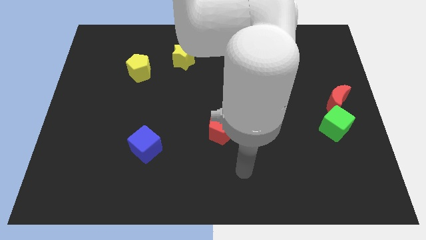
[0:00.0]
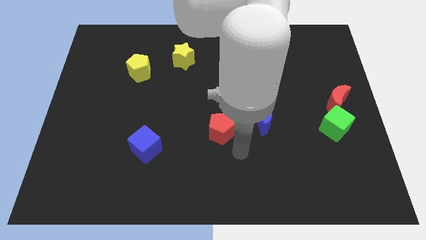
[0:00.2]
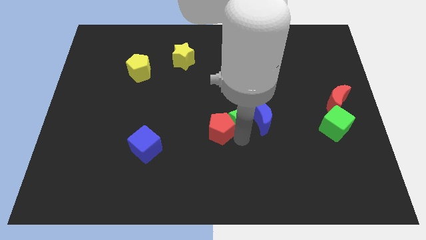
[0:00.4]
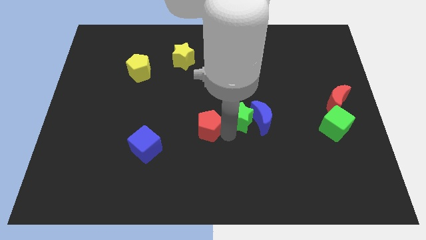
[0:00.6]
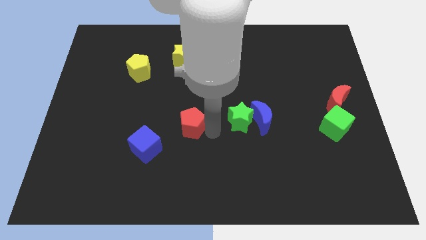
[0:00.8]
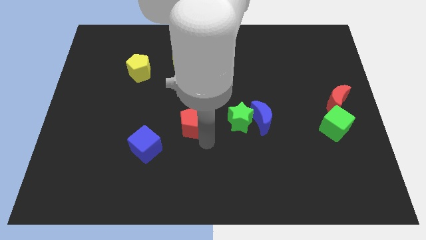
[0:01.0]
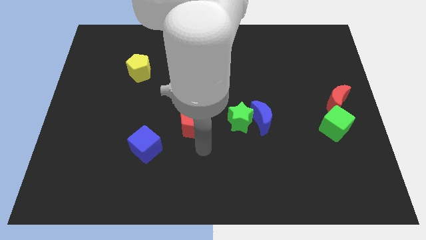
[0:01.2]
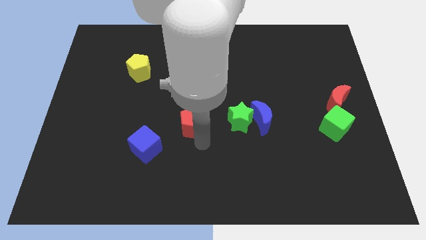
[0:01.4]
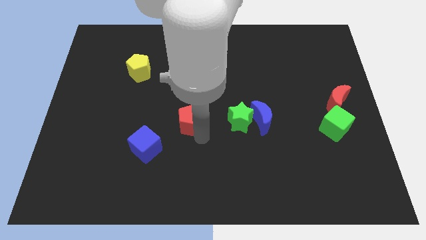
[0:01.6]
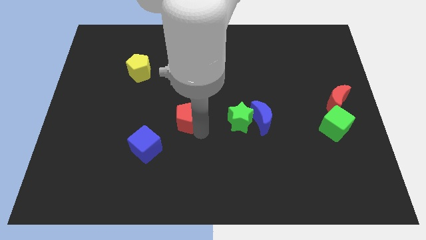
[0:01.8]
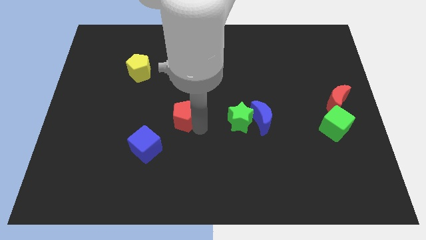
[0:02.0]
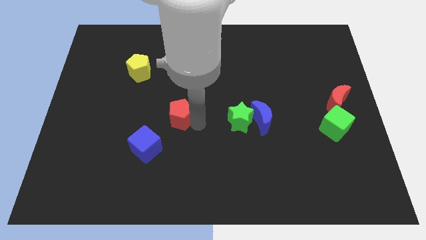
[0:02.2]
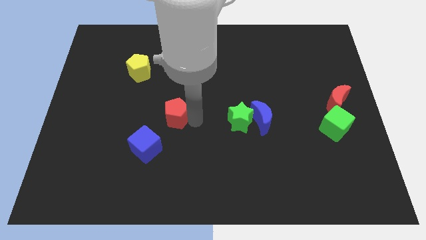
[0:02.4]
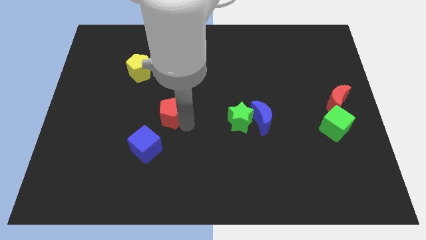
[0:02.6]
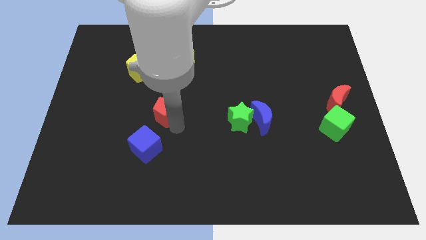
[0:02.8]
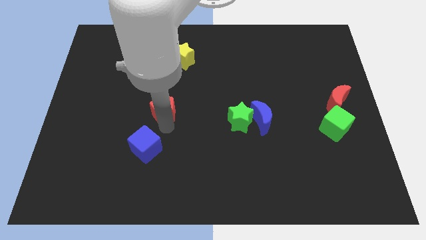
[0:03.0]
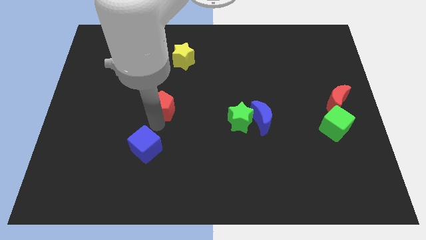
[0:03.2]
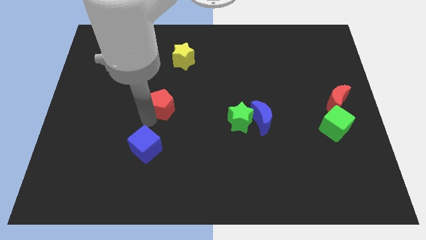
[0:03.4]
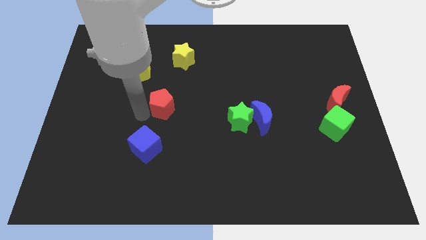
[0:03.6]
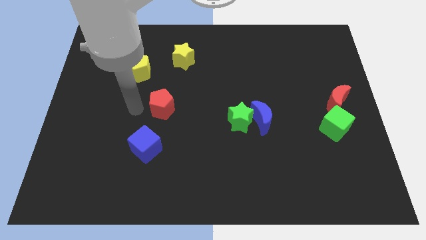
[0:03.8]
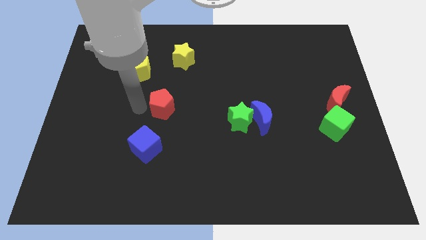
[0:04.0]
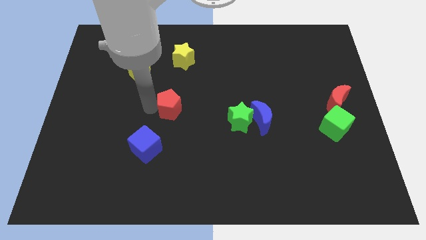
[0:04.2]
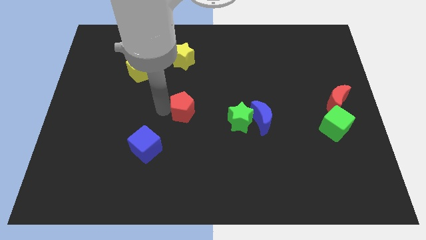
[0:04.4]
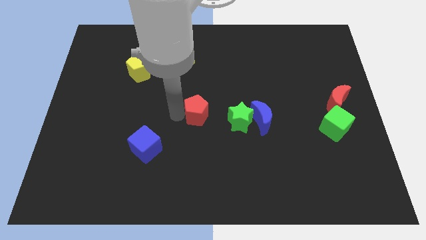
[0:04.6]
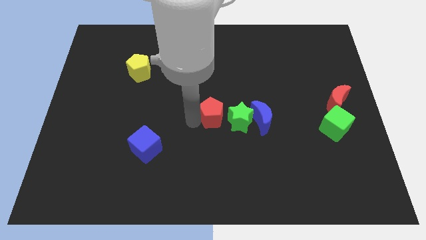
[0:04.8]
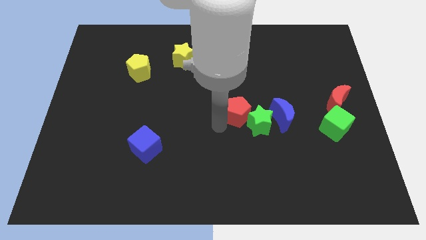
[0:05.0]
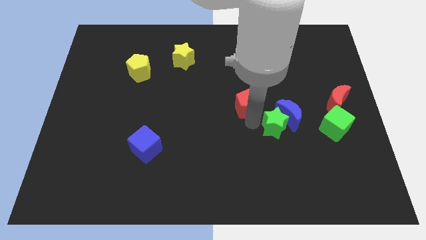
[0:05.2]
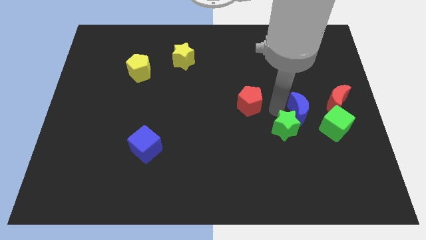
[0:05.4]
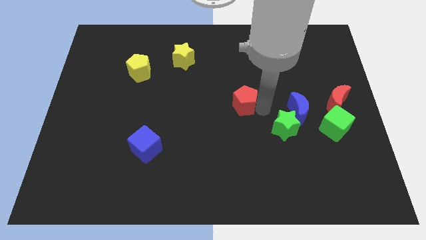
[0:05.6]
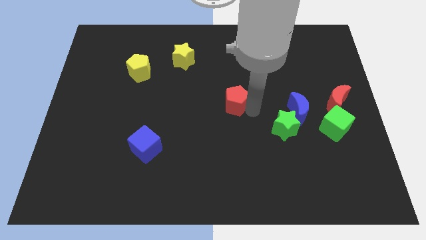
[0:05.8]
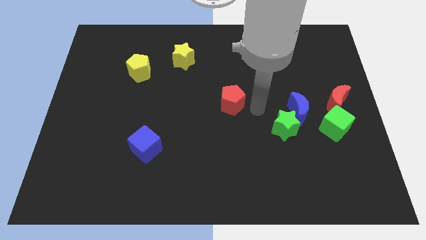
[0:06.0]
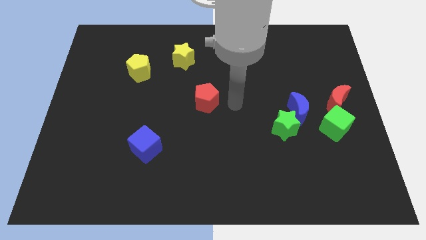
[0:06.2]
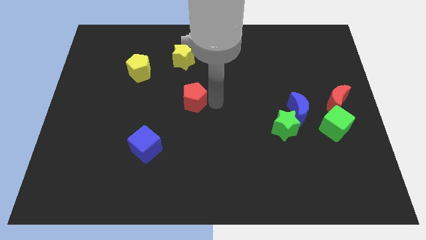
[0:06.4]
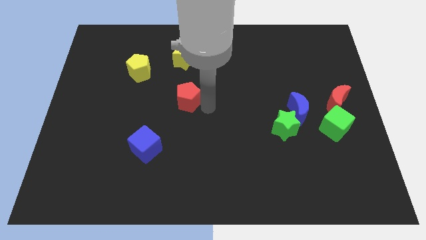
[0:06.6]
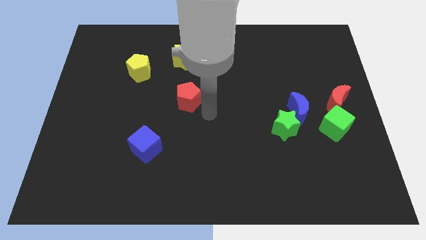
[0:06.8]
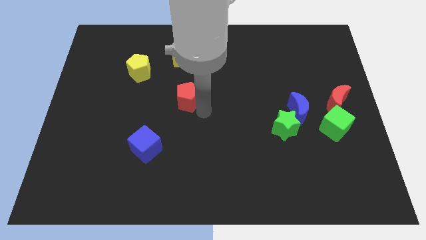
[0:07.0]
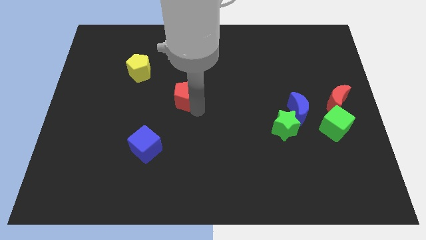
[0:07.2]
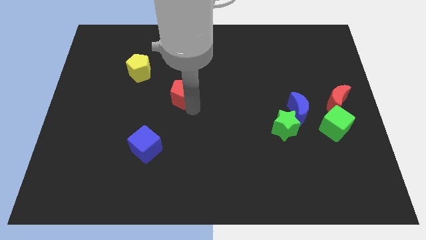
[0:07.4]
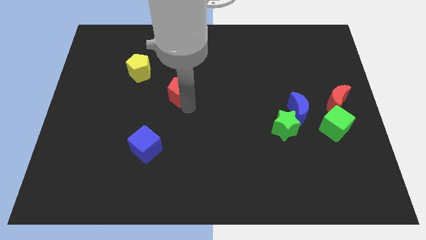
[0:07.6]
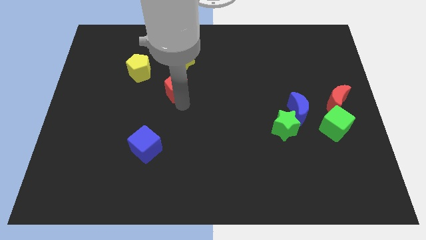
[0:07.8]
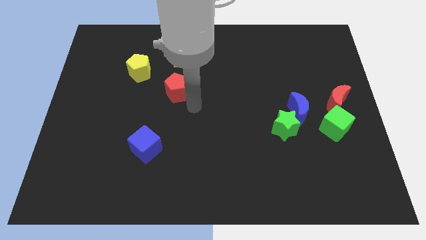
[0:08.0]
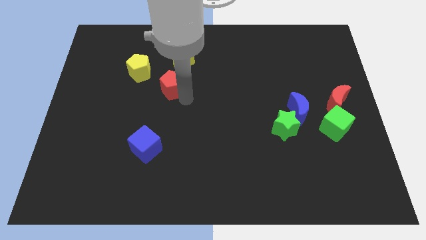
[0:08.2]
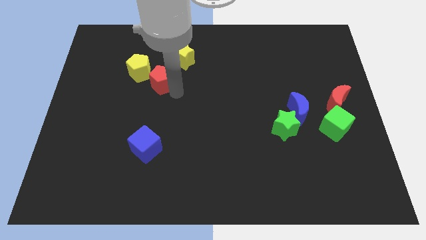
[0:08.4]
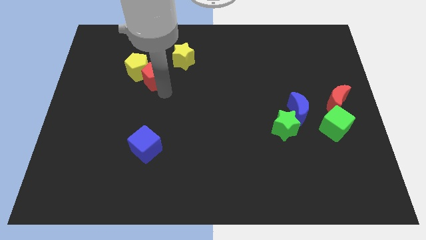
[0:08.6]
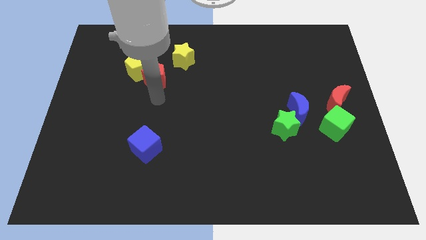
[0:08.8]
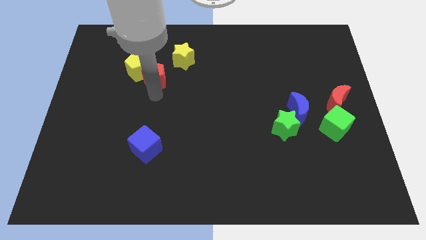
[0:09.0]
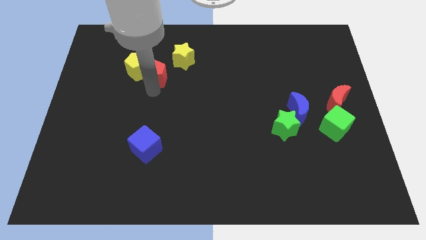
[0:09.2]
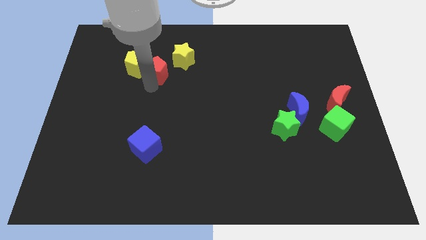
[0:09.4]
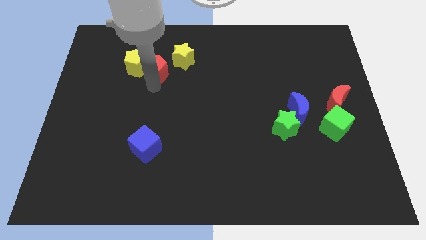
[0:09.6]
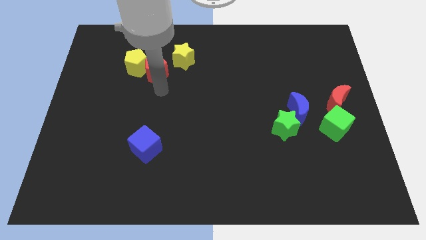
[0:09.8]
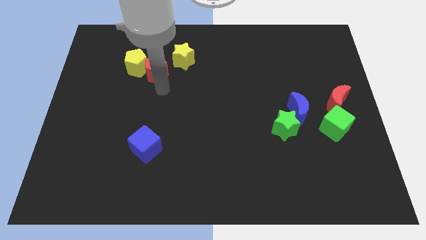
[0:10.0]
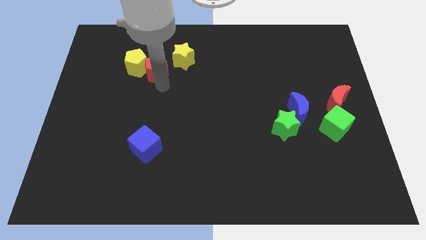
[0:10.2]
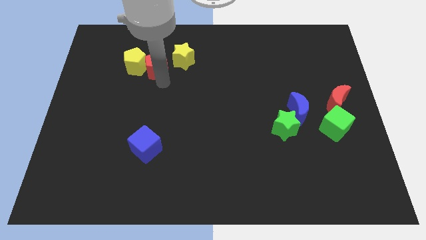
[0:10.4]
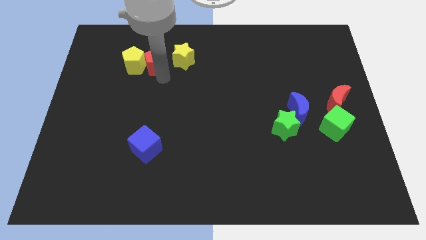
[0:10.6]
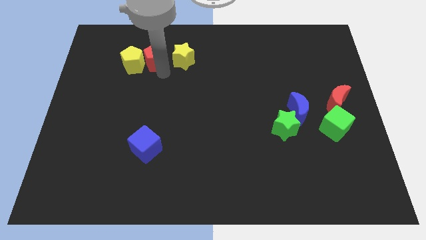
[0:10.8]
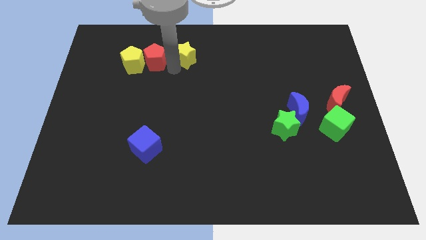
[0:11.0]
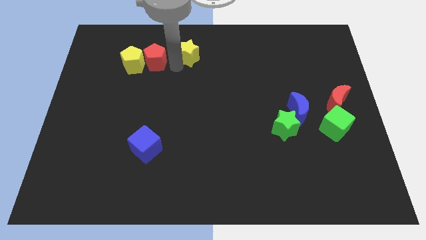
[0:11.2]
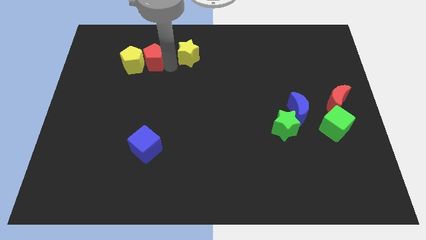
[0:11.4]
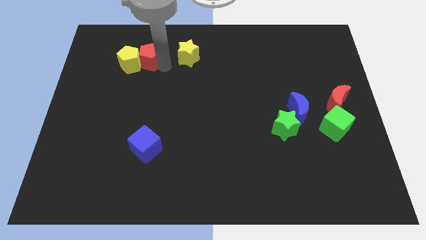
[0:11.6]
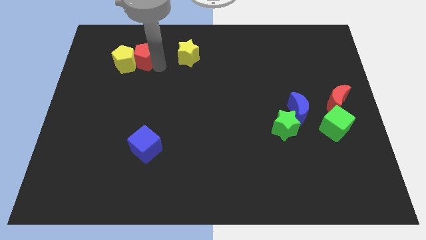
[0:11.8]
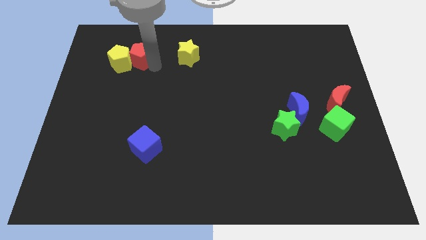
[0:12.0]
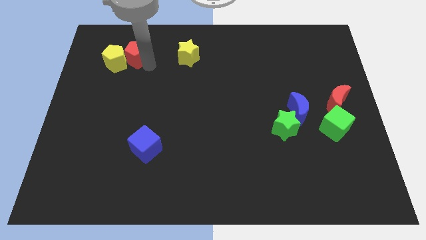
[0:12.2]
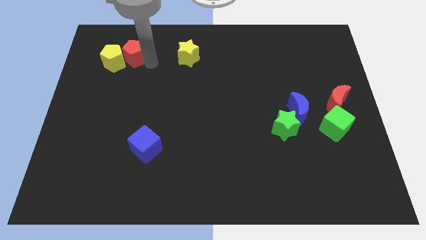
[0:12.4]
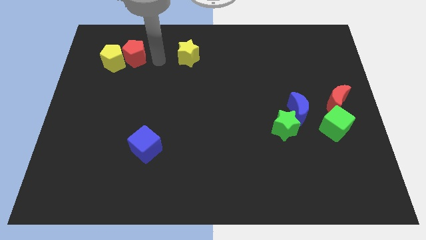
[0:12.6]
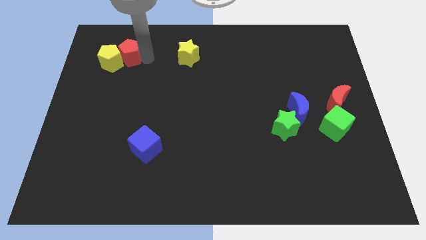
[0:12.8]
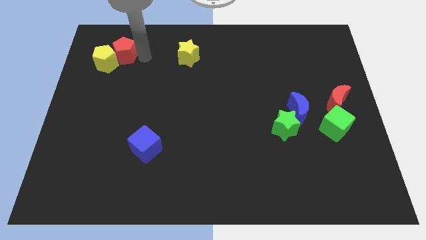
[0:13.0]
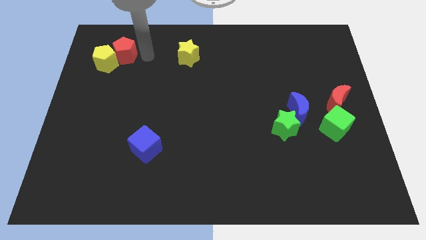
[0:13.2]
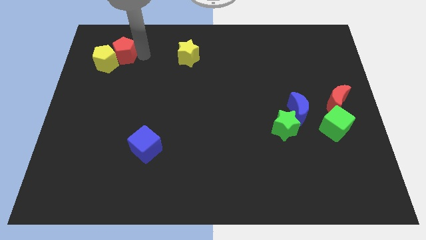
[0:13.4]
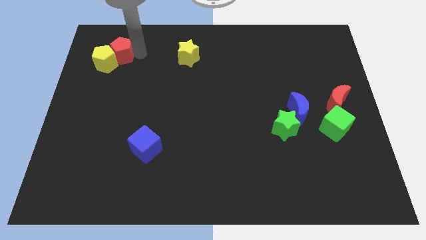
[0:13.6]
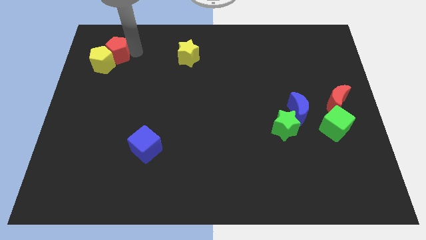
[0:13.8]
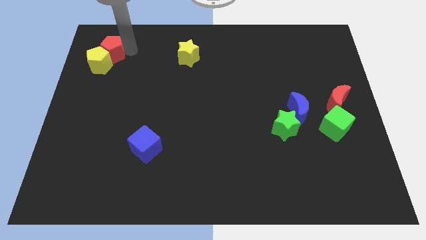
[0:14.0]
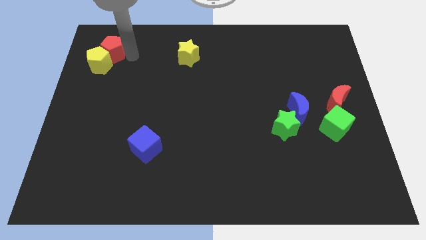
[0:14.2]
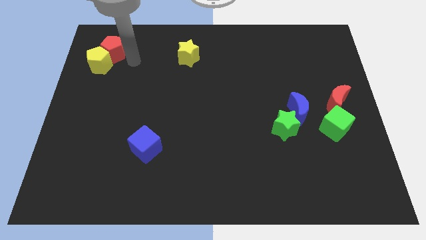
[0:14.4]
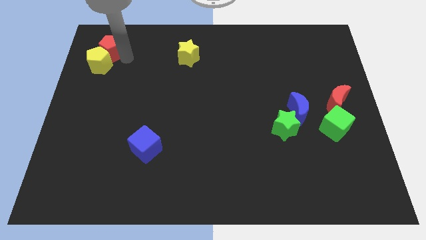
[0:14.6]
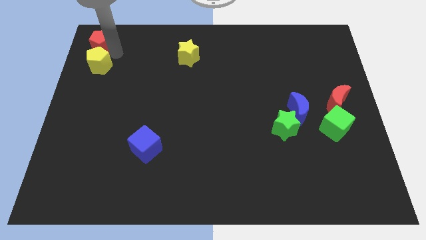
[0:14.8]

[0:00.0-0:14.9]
put the red pentagon to the top left of the board
